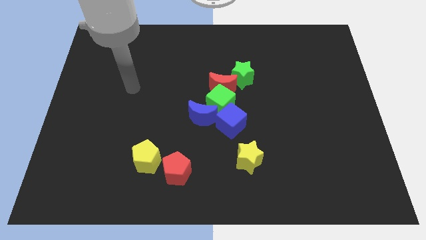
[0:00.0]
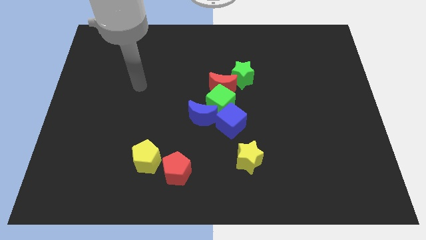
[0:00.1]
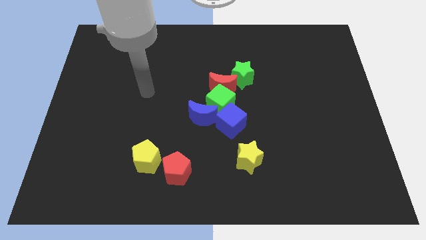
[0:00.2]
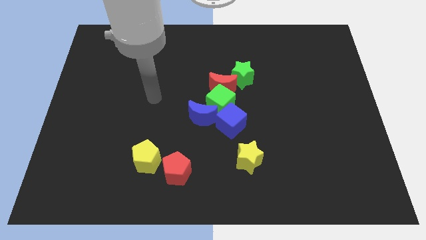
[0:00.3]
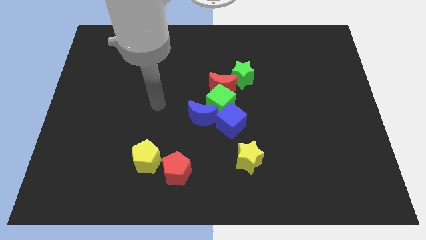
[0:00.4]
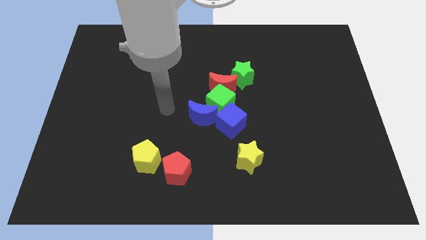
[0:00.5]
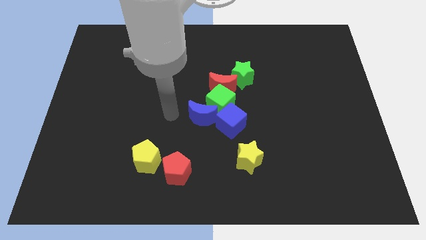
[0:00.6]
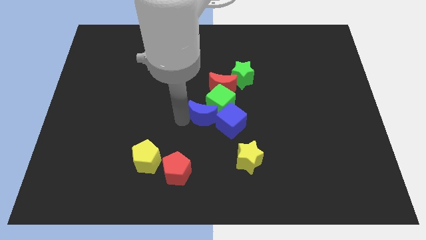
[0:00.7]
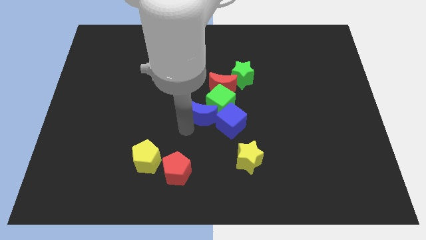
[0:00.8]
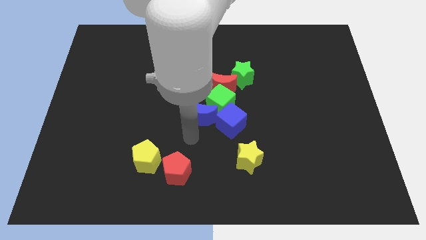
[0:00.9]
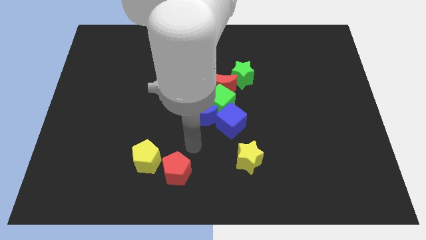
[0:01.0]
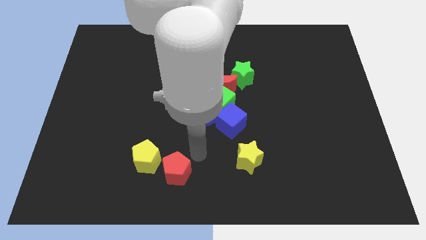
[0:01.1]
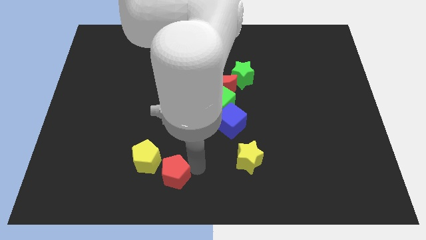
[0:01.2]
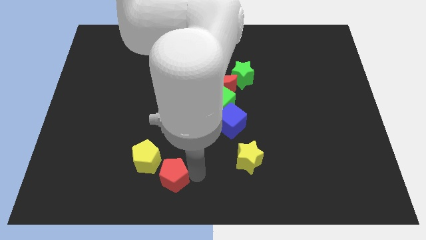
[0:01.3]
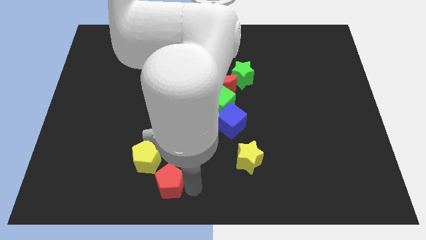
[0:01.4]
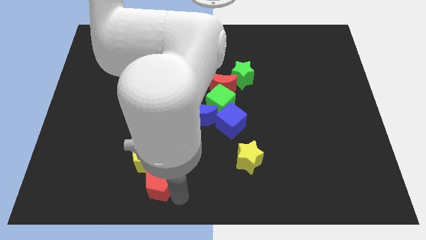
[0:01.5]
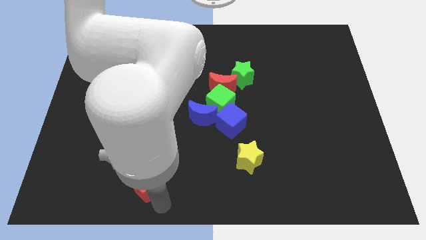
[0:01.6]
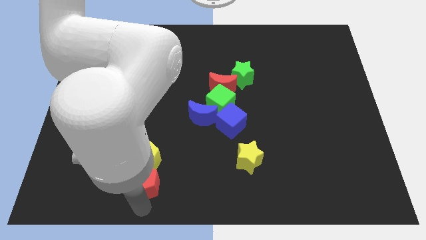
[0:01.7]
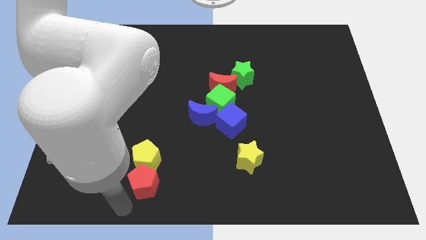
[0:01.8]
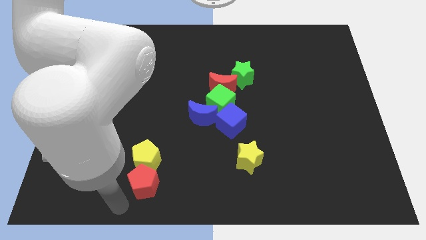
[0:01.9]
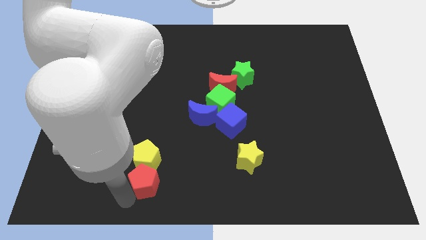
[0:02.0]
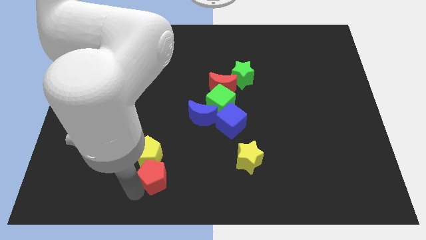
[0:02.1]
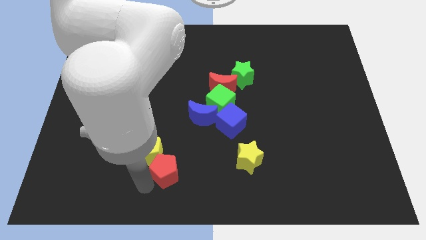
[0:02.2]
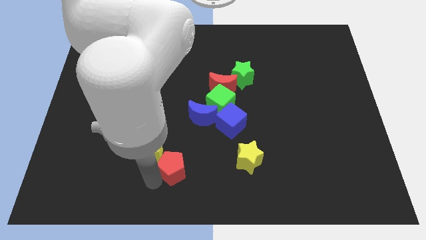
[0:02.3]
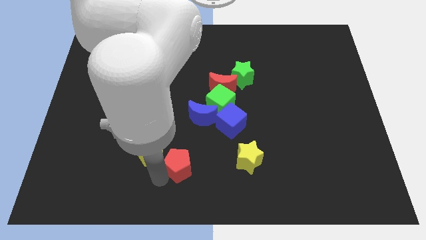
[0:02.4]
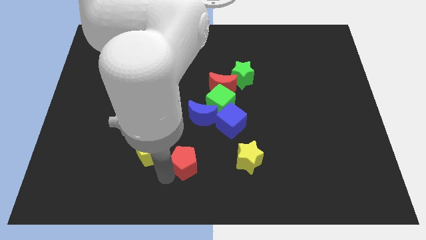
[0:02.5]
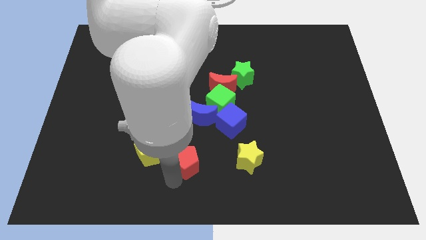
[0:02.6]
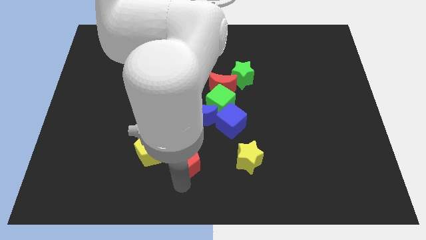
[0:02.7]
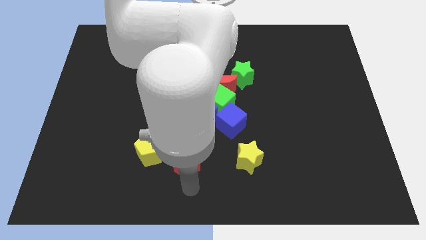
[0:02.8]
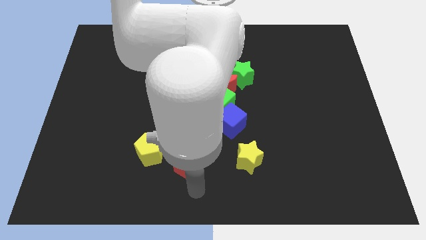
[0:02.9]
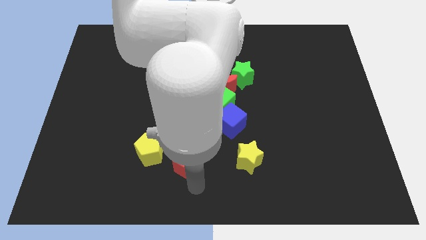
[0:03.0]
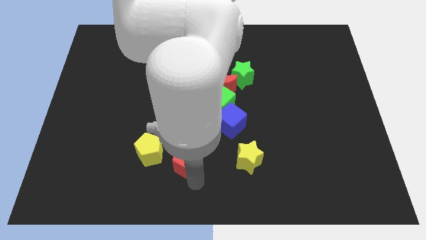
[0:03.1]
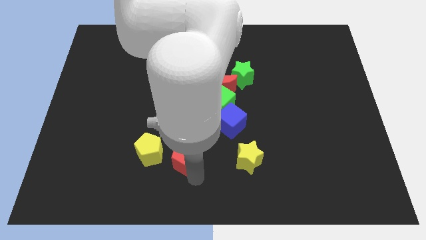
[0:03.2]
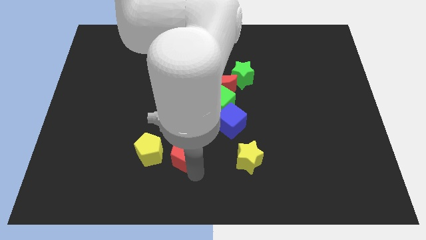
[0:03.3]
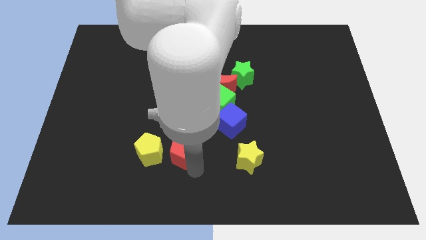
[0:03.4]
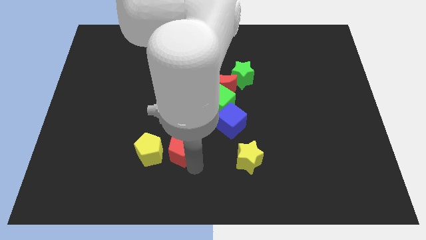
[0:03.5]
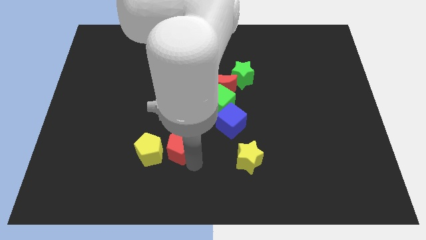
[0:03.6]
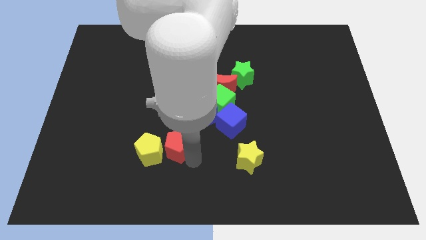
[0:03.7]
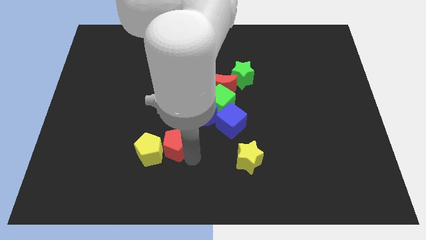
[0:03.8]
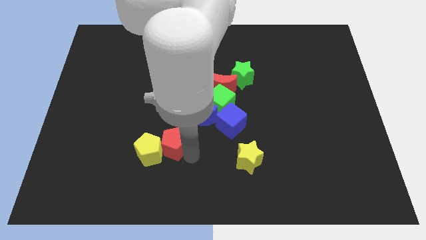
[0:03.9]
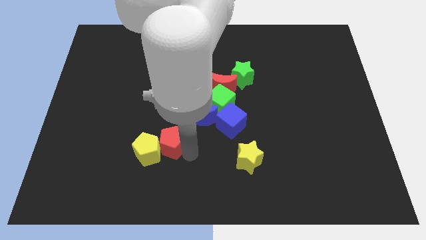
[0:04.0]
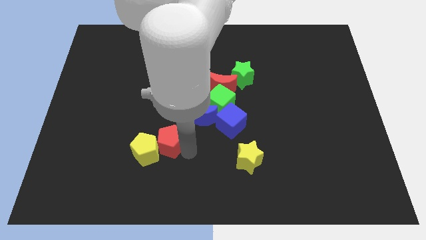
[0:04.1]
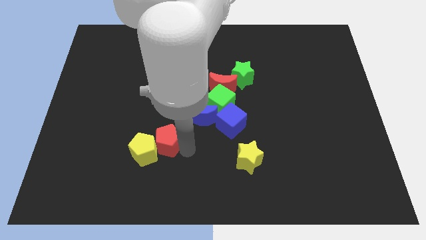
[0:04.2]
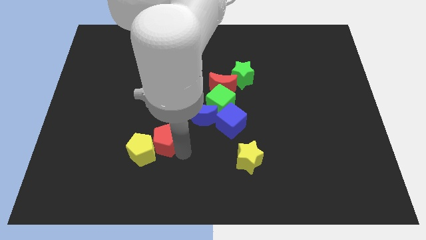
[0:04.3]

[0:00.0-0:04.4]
push the red pentagon upwards and left a little bit

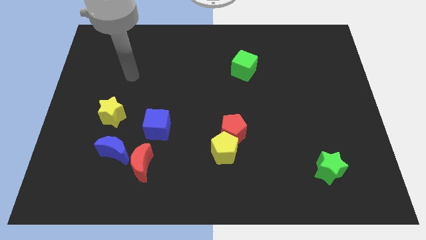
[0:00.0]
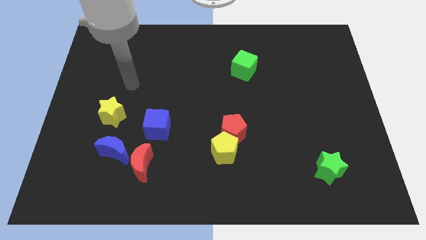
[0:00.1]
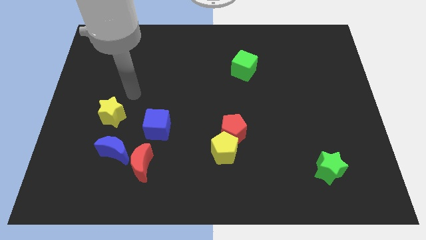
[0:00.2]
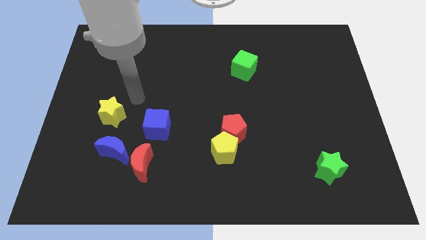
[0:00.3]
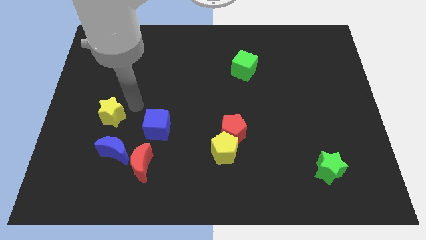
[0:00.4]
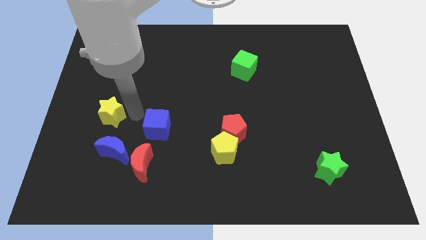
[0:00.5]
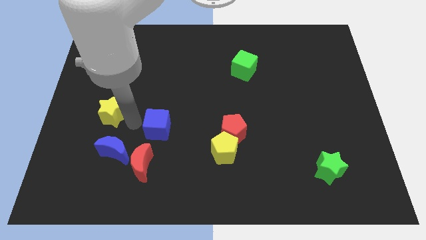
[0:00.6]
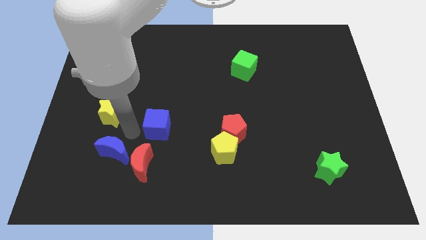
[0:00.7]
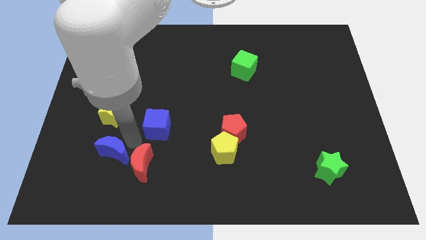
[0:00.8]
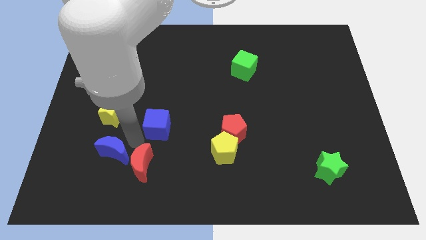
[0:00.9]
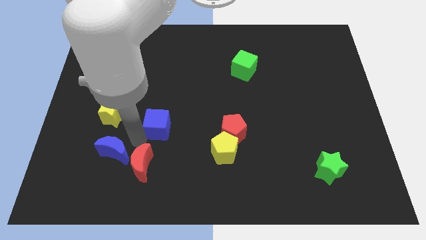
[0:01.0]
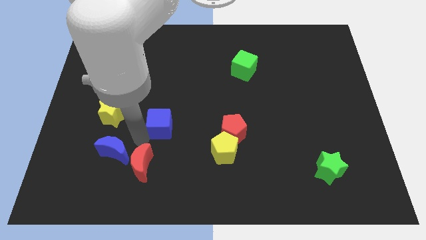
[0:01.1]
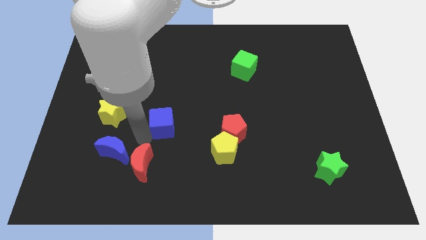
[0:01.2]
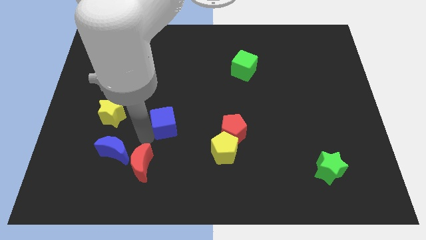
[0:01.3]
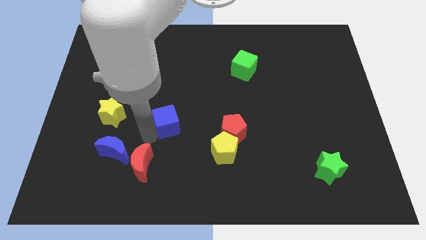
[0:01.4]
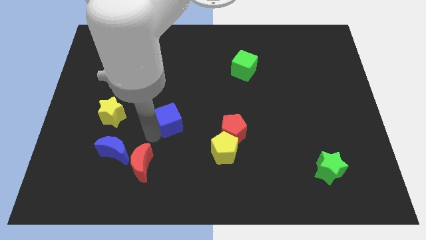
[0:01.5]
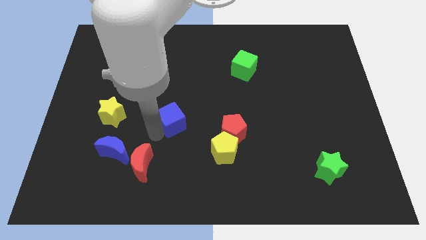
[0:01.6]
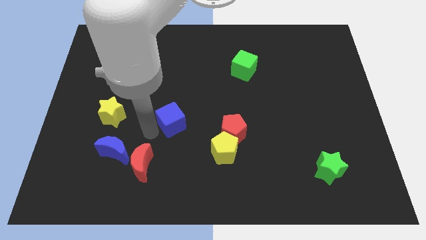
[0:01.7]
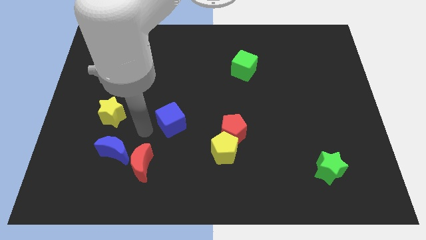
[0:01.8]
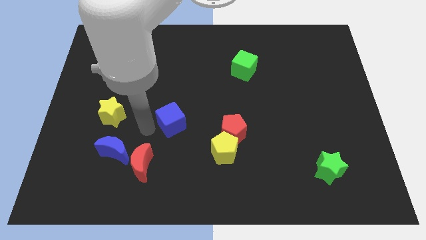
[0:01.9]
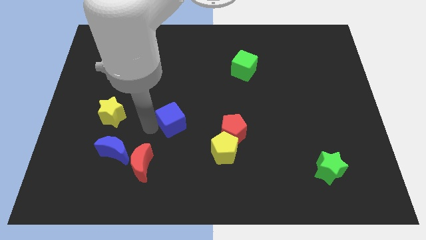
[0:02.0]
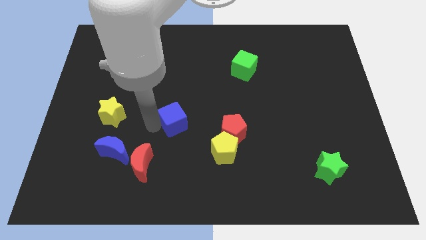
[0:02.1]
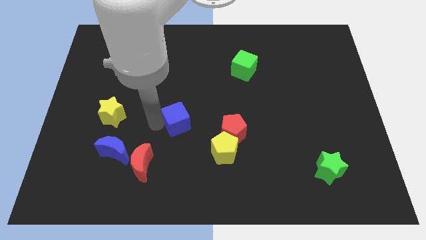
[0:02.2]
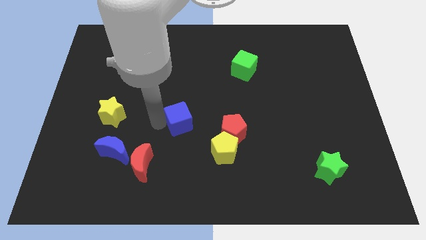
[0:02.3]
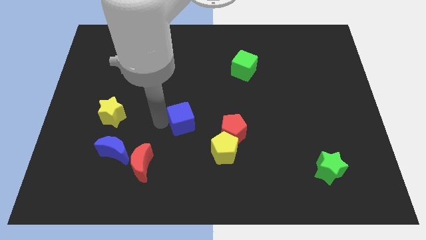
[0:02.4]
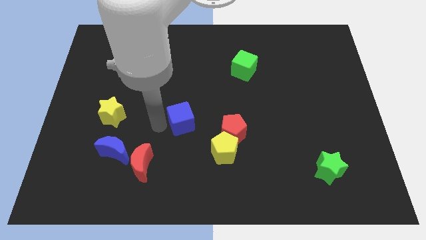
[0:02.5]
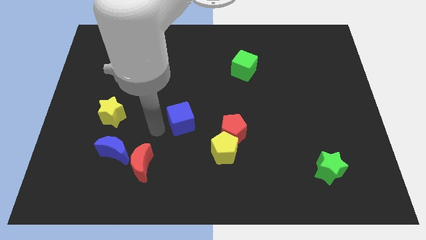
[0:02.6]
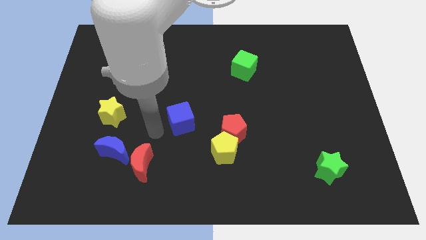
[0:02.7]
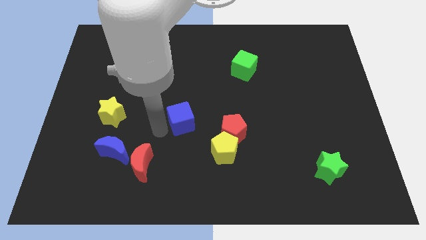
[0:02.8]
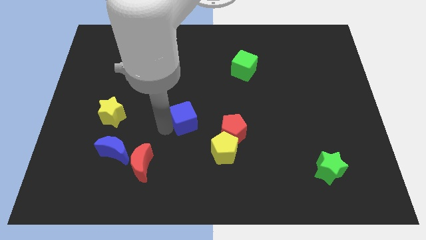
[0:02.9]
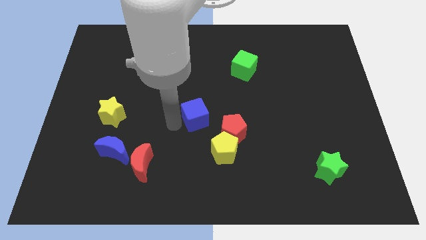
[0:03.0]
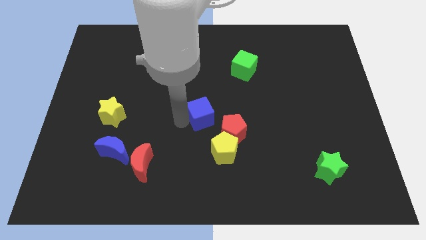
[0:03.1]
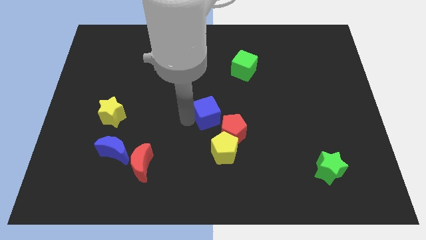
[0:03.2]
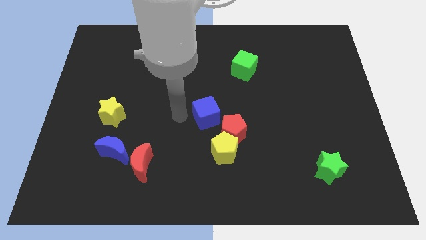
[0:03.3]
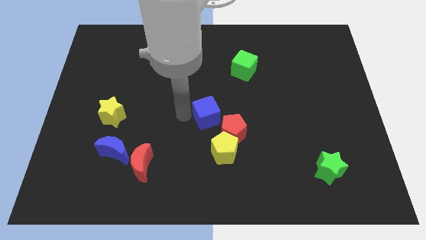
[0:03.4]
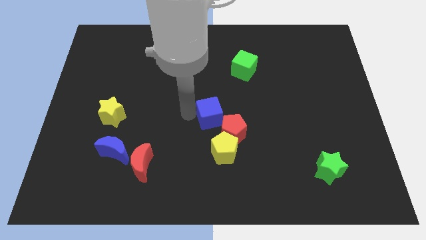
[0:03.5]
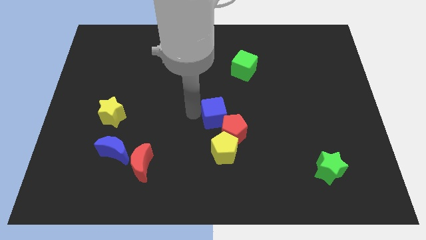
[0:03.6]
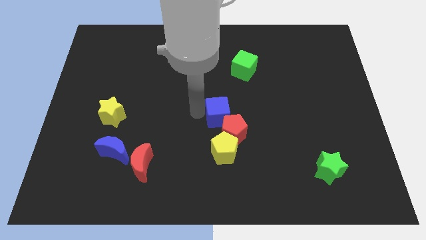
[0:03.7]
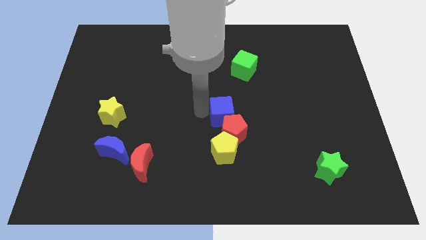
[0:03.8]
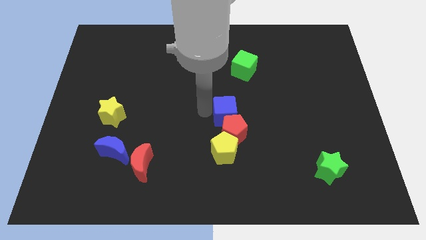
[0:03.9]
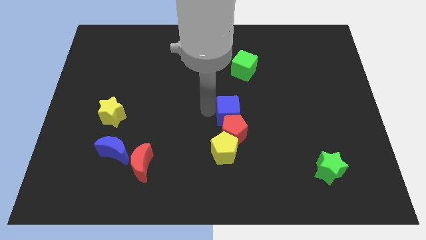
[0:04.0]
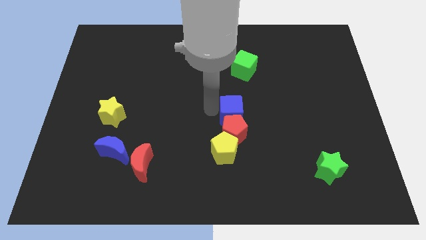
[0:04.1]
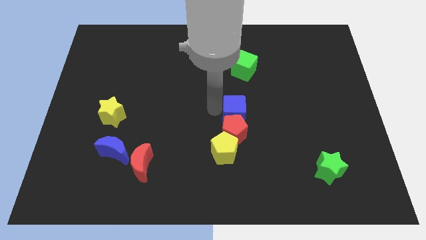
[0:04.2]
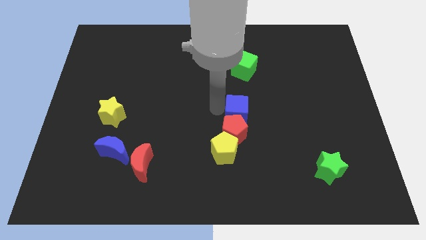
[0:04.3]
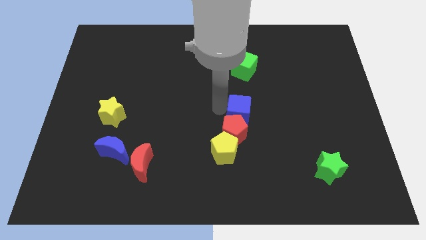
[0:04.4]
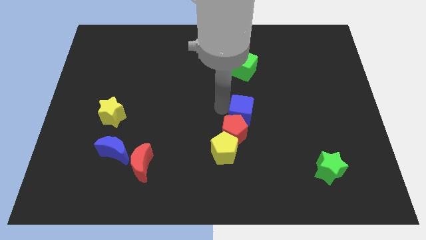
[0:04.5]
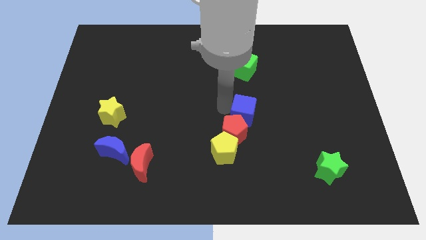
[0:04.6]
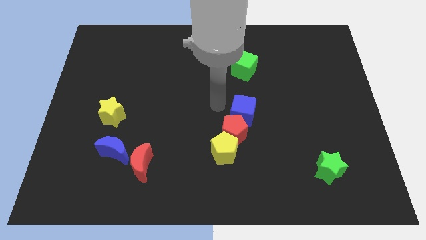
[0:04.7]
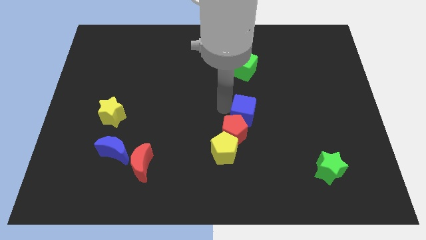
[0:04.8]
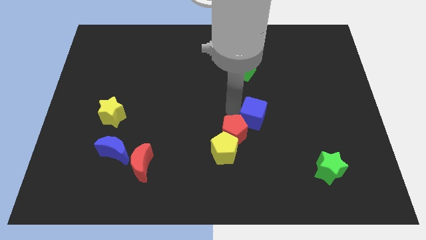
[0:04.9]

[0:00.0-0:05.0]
move the blue cube to the right
